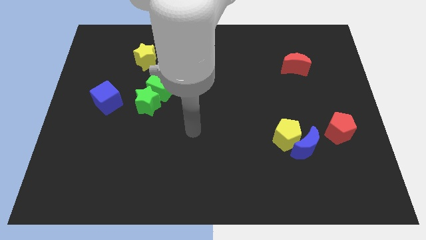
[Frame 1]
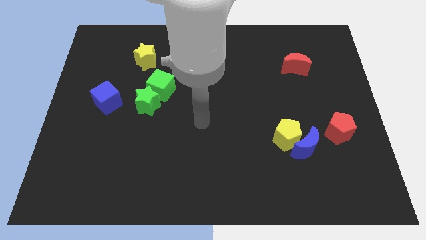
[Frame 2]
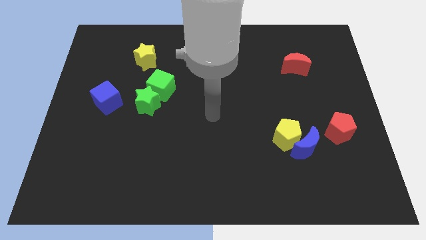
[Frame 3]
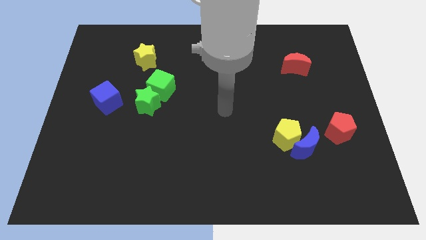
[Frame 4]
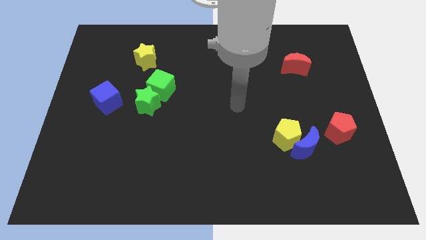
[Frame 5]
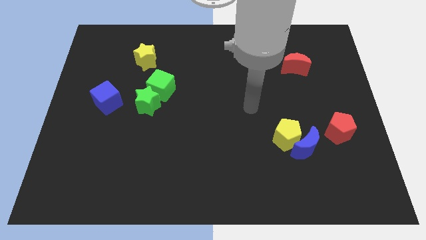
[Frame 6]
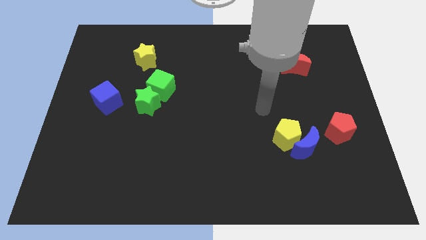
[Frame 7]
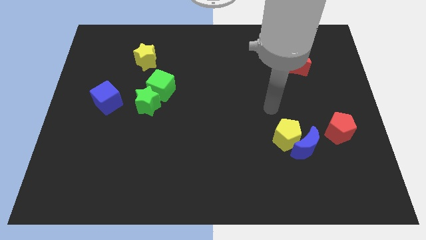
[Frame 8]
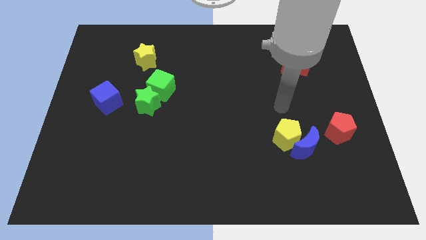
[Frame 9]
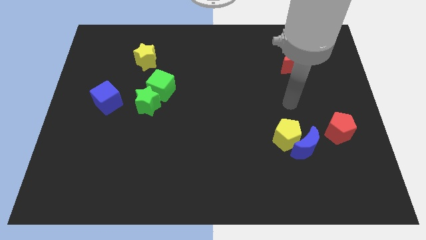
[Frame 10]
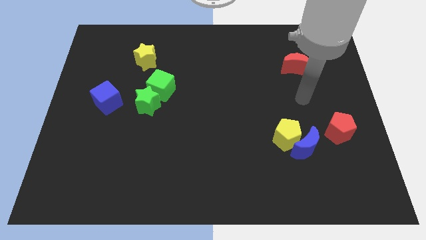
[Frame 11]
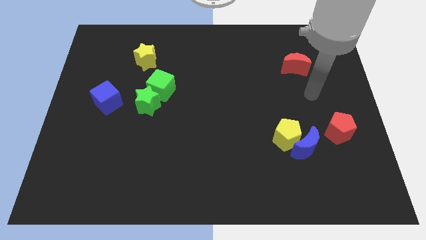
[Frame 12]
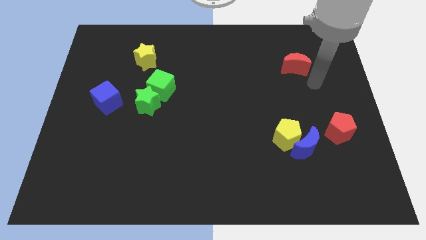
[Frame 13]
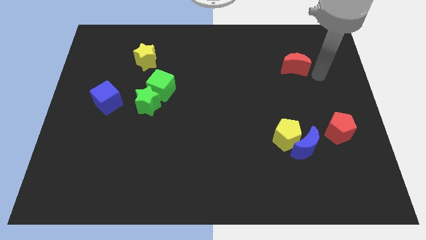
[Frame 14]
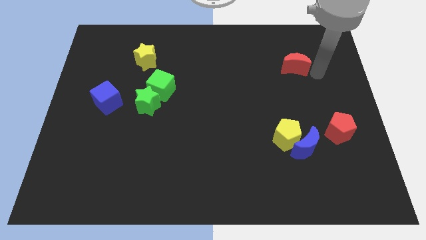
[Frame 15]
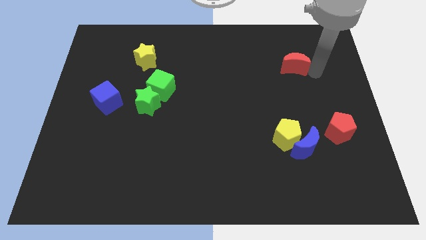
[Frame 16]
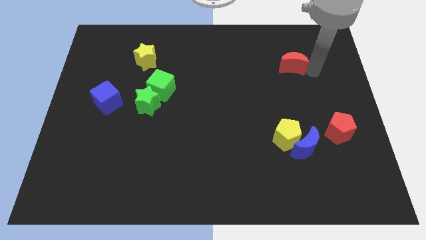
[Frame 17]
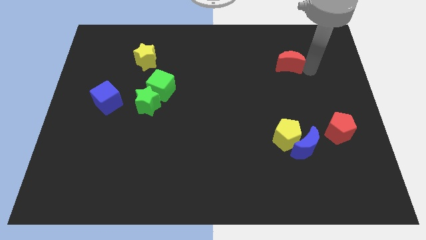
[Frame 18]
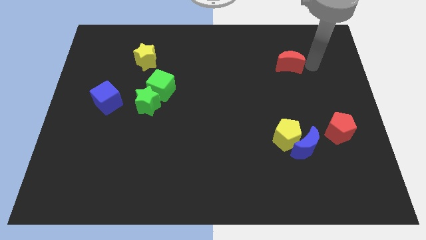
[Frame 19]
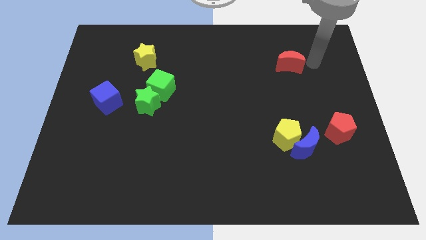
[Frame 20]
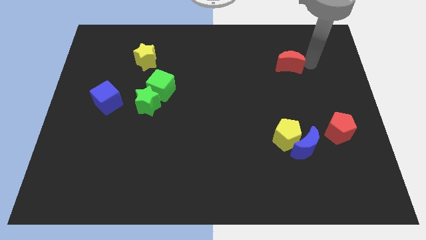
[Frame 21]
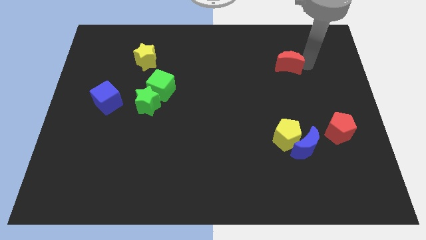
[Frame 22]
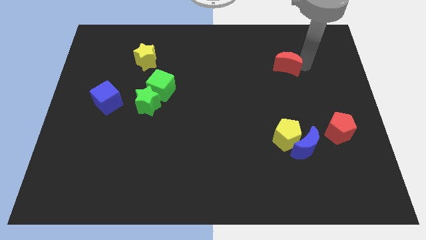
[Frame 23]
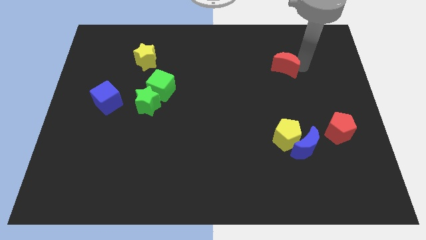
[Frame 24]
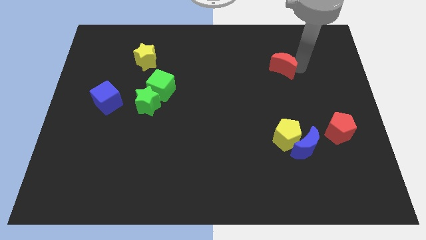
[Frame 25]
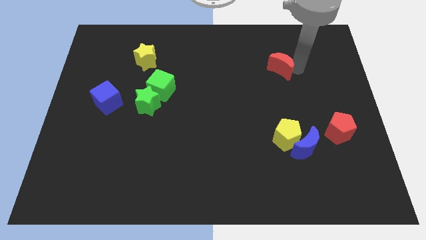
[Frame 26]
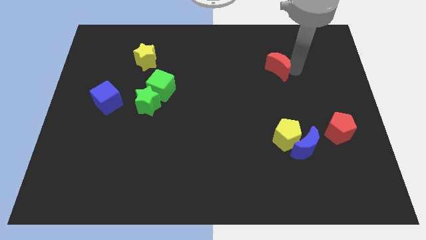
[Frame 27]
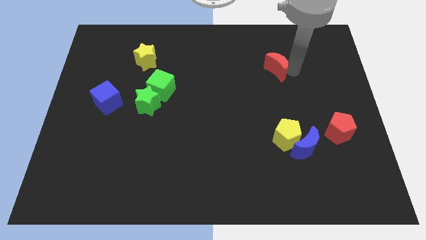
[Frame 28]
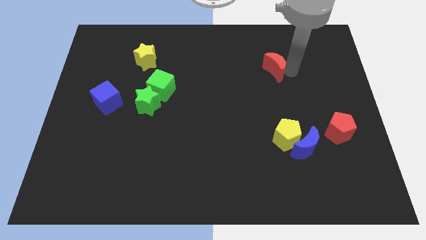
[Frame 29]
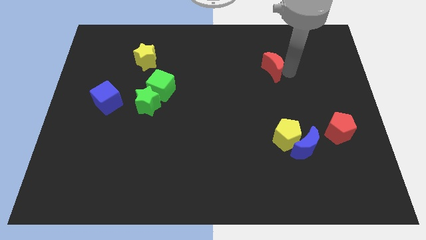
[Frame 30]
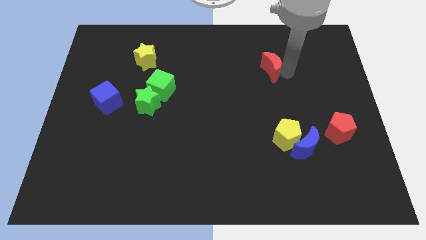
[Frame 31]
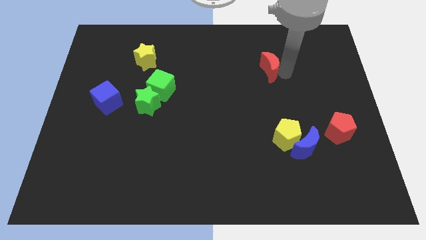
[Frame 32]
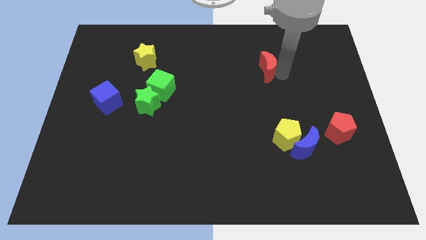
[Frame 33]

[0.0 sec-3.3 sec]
push the red moon left somewhat

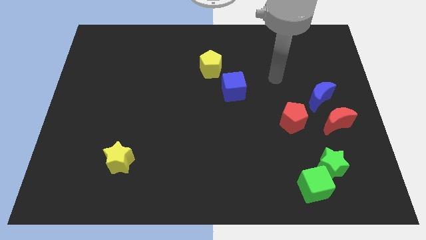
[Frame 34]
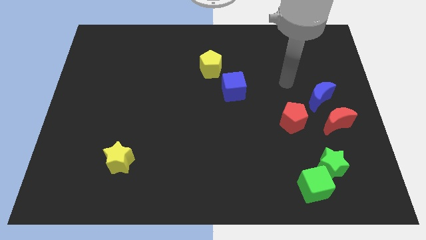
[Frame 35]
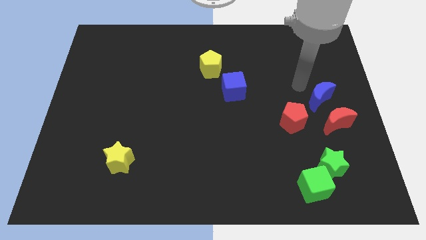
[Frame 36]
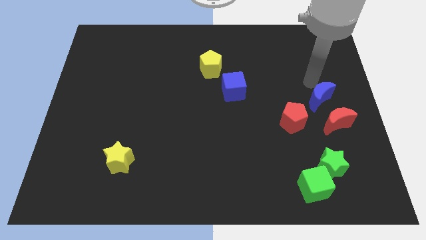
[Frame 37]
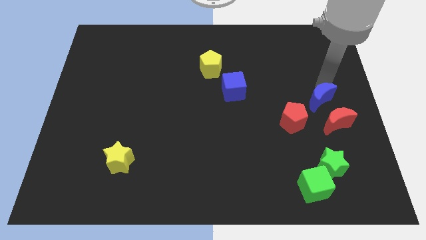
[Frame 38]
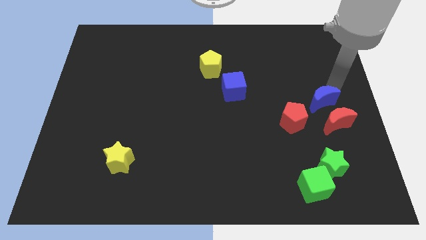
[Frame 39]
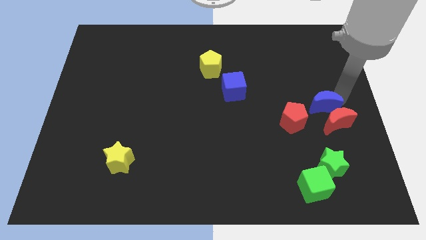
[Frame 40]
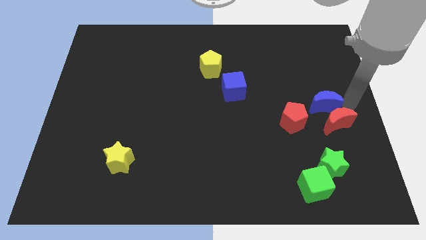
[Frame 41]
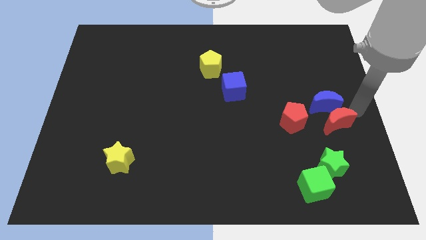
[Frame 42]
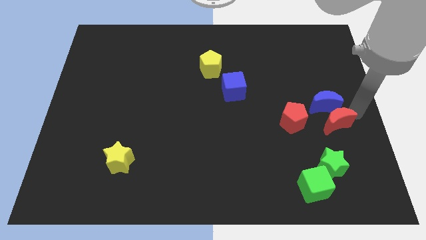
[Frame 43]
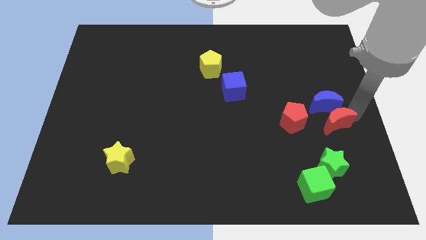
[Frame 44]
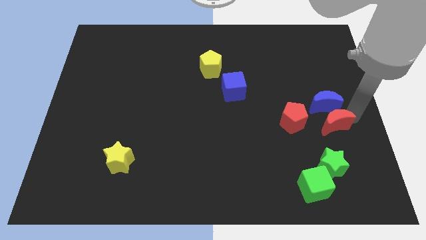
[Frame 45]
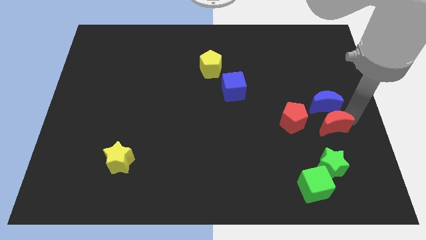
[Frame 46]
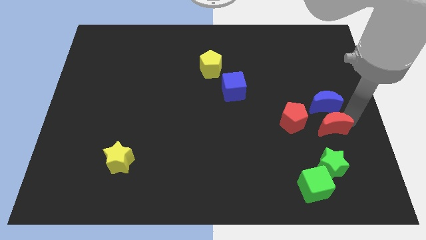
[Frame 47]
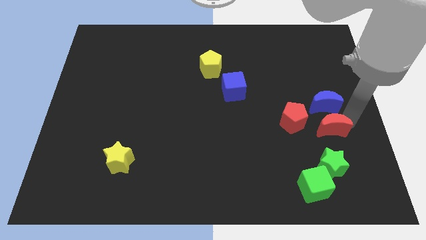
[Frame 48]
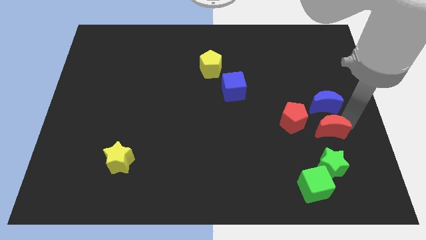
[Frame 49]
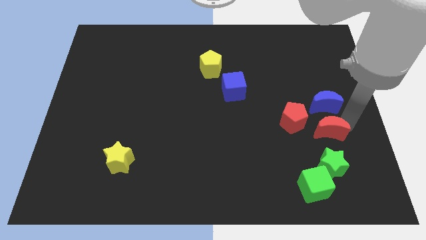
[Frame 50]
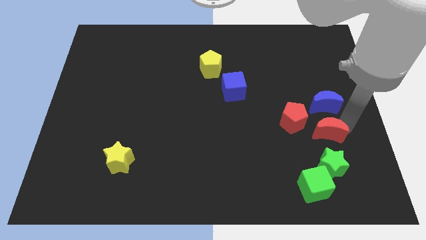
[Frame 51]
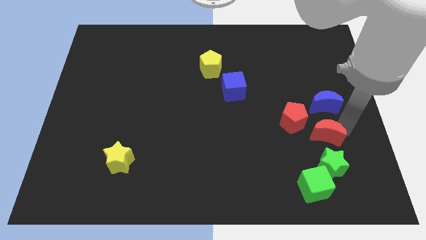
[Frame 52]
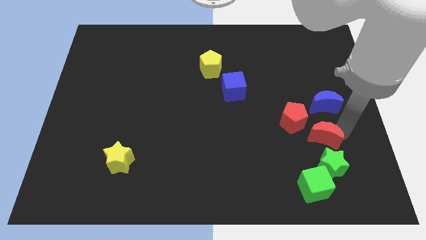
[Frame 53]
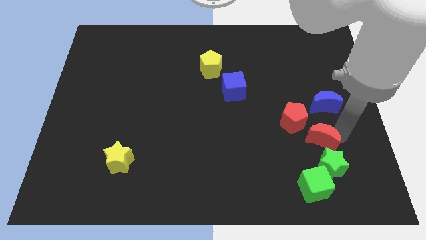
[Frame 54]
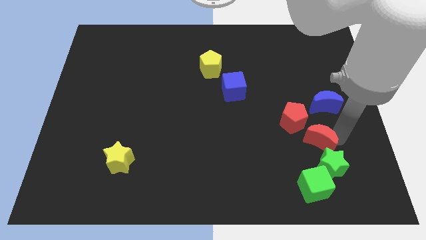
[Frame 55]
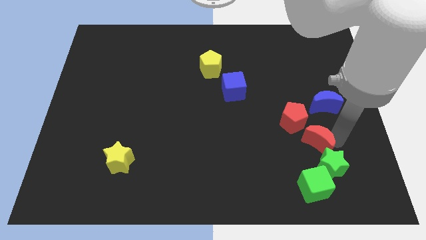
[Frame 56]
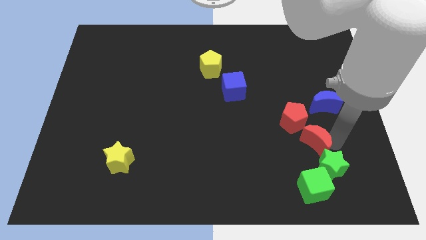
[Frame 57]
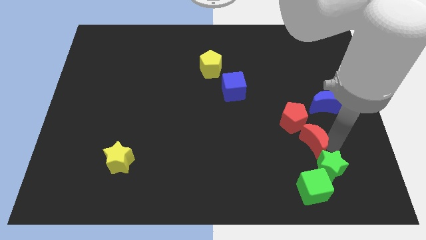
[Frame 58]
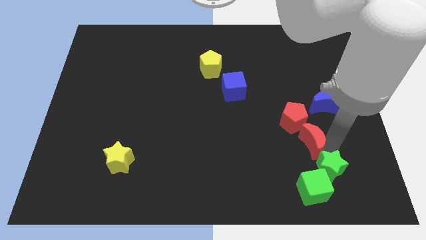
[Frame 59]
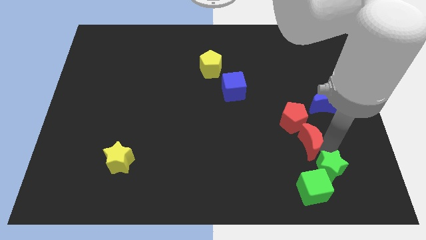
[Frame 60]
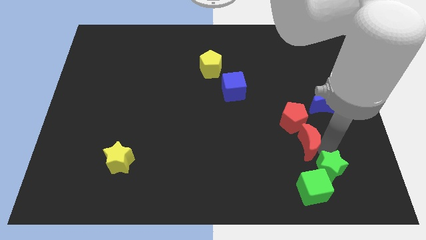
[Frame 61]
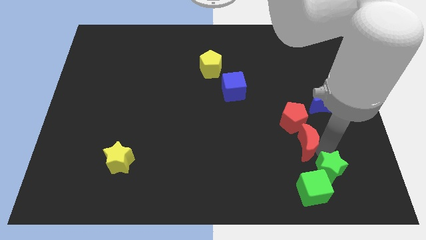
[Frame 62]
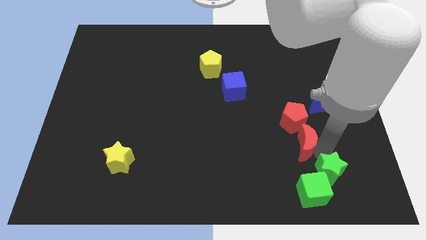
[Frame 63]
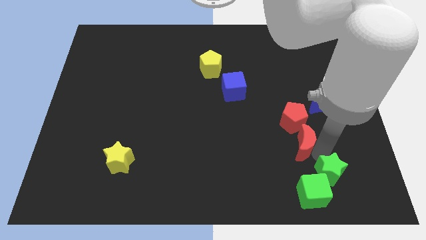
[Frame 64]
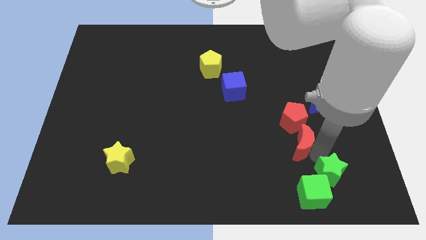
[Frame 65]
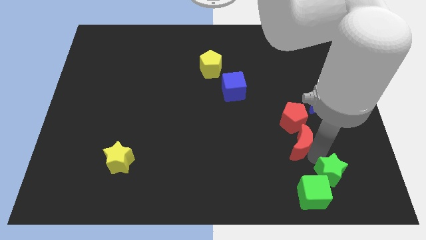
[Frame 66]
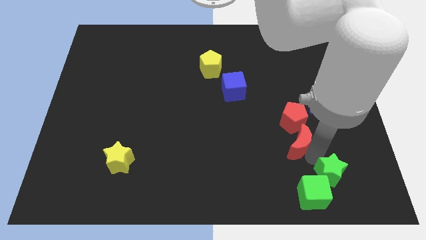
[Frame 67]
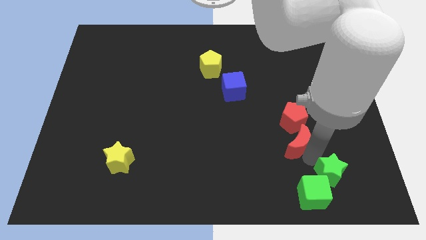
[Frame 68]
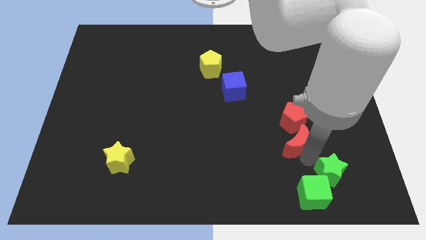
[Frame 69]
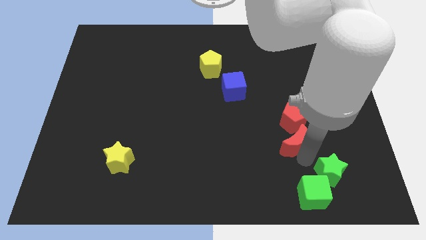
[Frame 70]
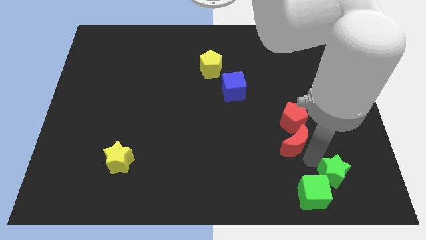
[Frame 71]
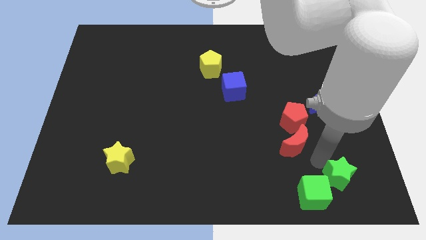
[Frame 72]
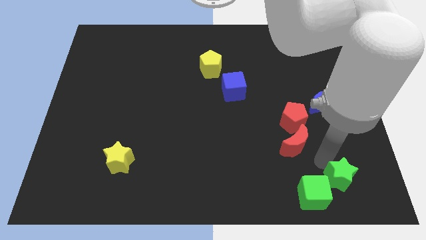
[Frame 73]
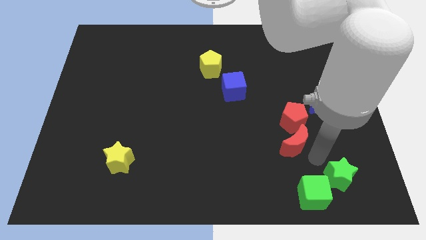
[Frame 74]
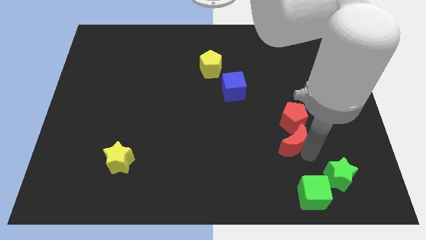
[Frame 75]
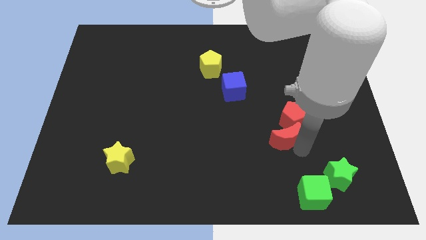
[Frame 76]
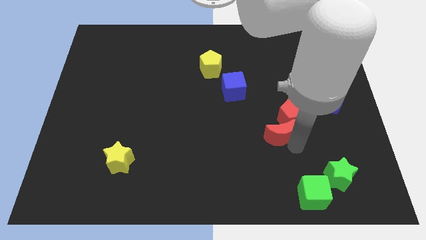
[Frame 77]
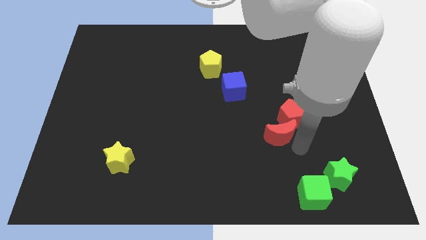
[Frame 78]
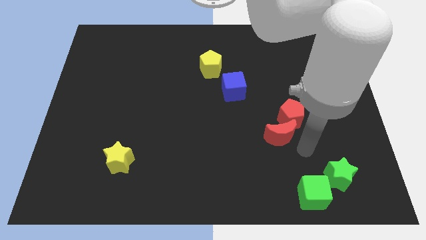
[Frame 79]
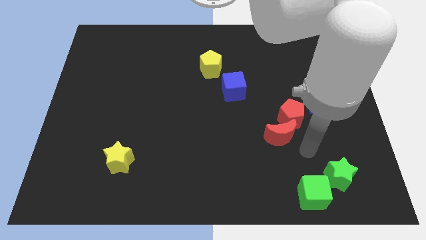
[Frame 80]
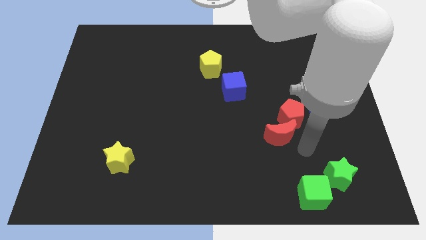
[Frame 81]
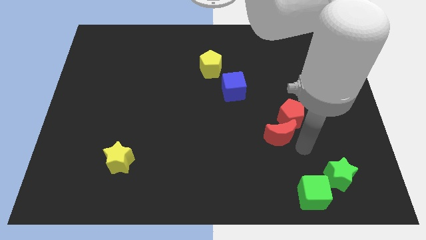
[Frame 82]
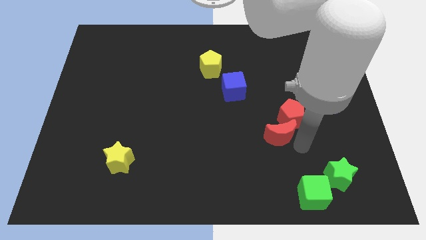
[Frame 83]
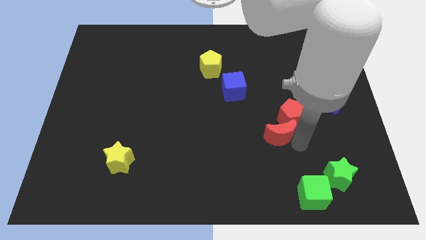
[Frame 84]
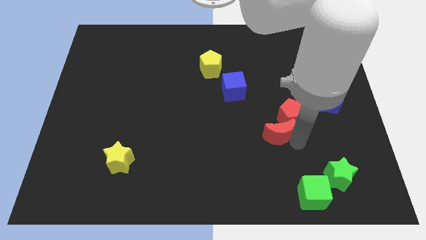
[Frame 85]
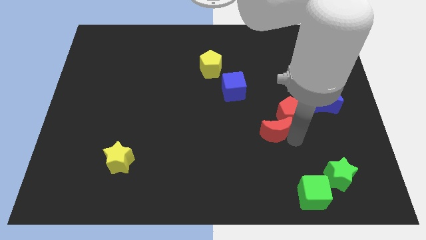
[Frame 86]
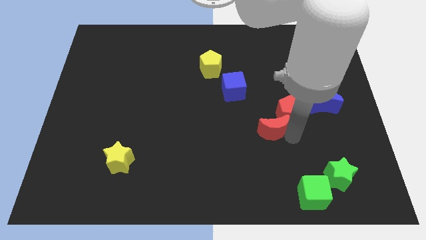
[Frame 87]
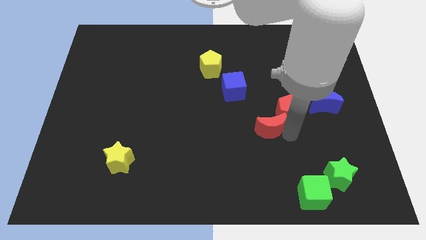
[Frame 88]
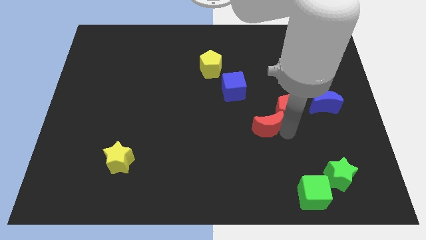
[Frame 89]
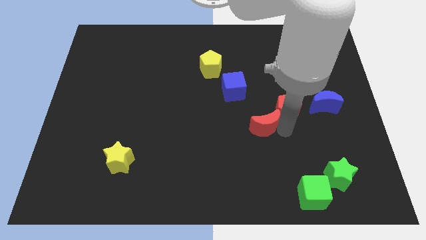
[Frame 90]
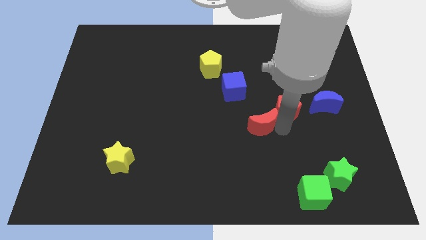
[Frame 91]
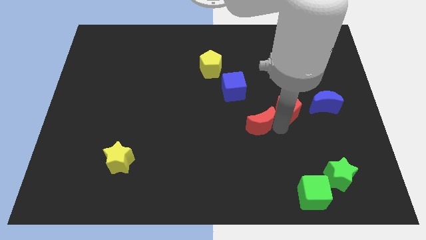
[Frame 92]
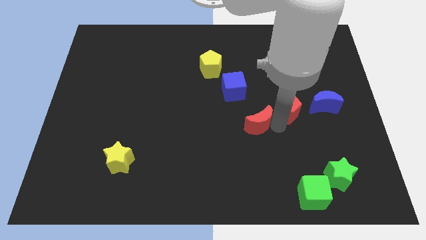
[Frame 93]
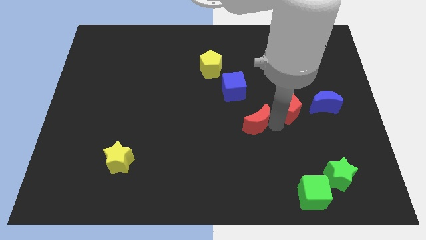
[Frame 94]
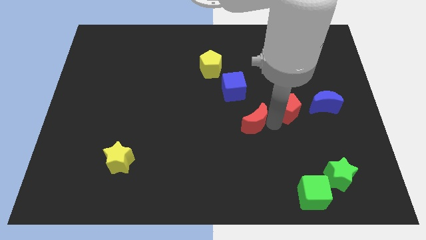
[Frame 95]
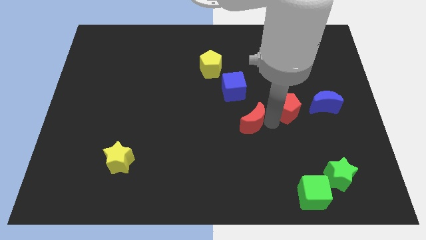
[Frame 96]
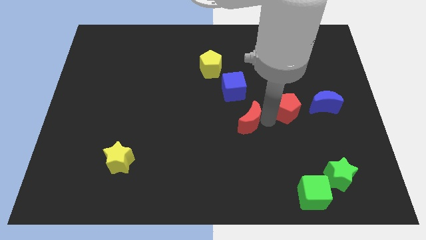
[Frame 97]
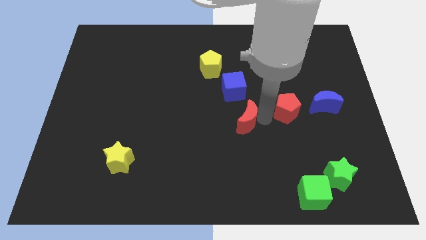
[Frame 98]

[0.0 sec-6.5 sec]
slide the red moon left
